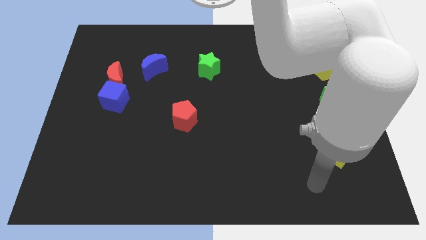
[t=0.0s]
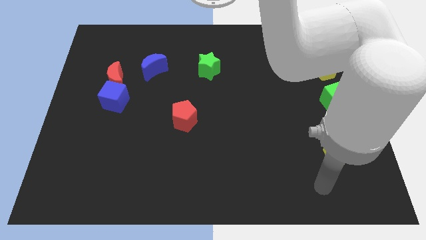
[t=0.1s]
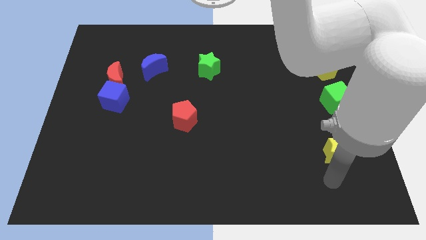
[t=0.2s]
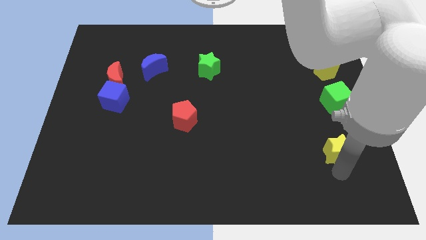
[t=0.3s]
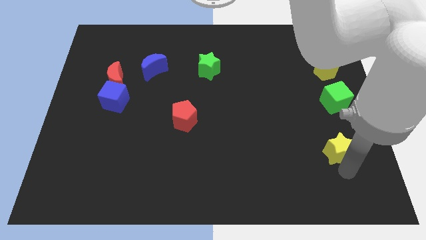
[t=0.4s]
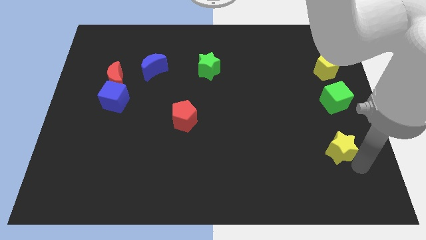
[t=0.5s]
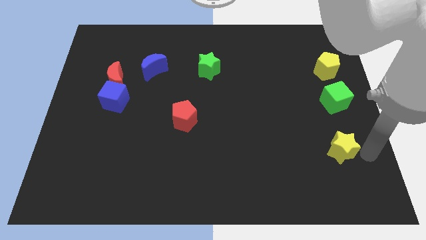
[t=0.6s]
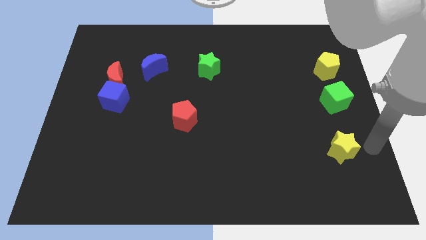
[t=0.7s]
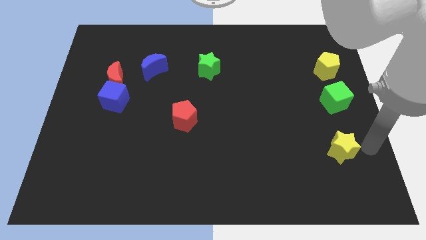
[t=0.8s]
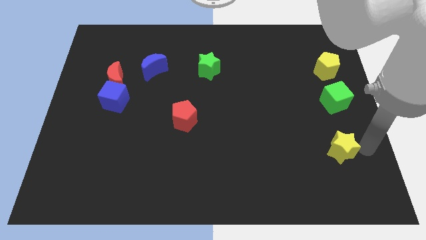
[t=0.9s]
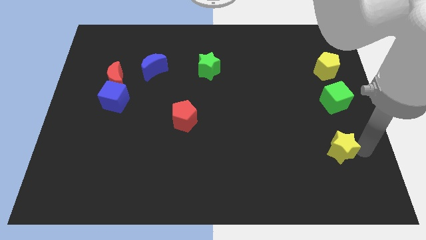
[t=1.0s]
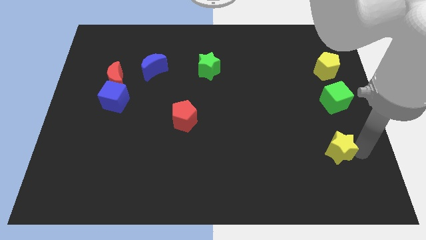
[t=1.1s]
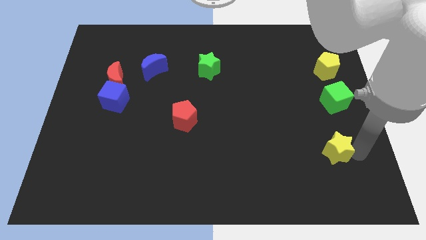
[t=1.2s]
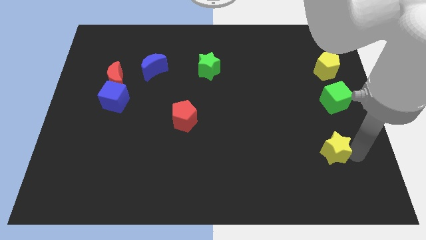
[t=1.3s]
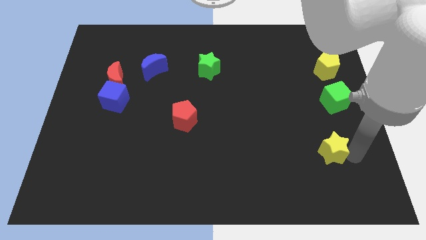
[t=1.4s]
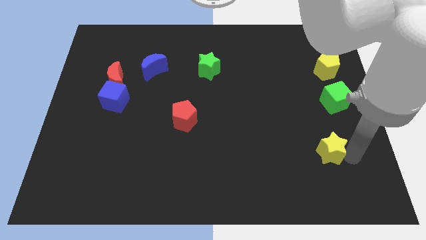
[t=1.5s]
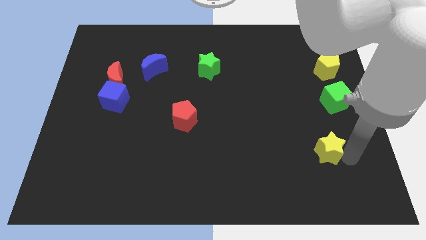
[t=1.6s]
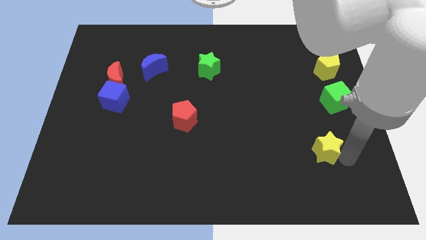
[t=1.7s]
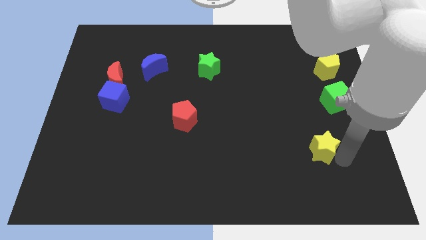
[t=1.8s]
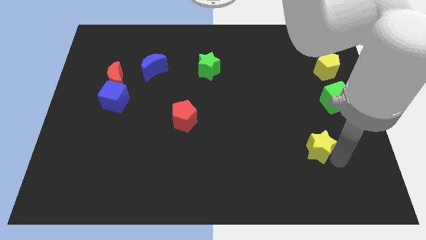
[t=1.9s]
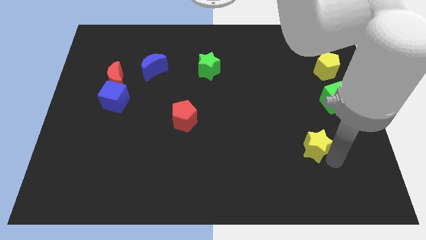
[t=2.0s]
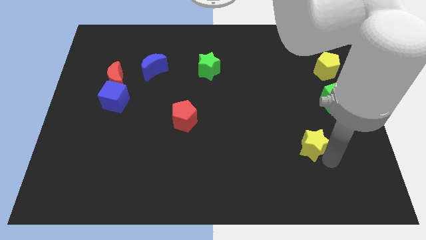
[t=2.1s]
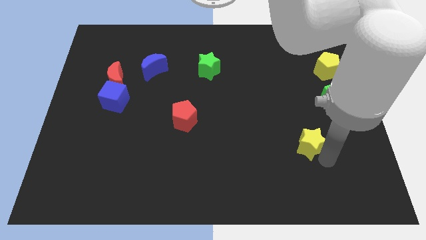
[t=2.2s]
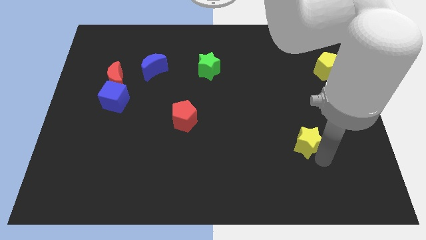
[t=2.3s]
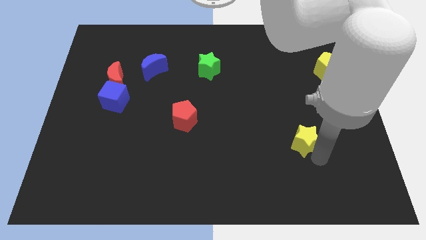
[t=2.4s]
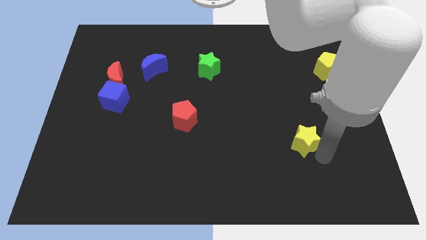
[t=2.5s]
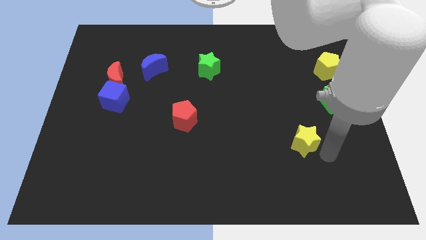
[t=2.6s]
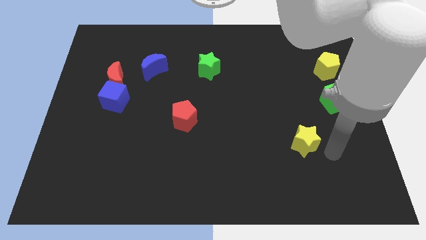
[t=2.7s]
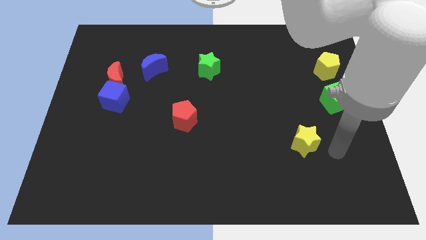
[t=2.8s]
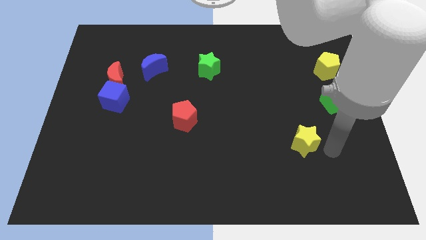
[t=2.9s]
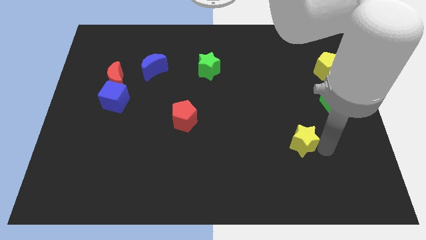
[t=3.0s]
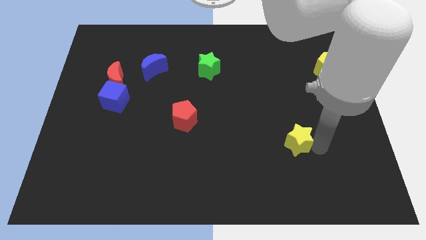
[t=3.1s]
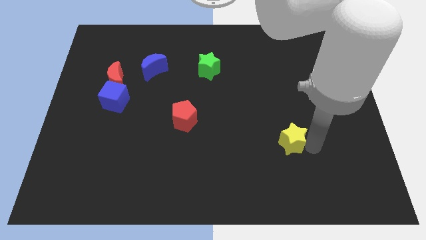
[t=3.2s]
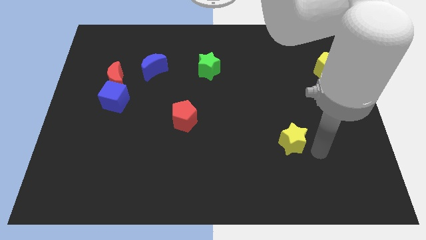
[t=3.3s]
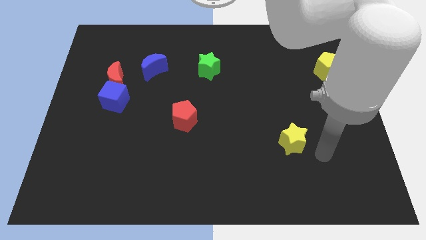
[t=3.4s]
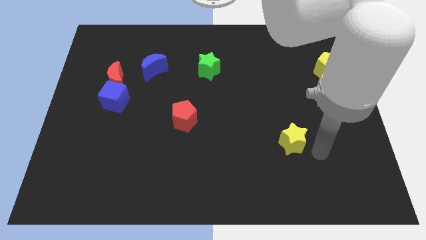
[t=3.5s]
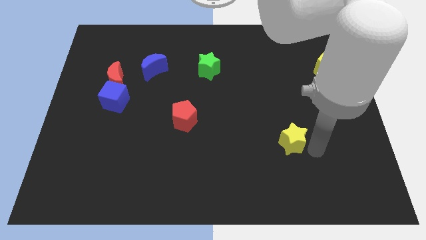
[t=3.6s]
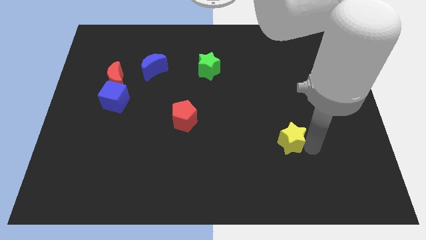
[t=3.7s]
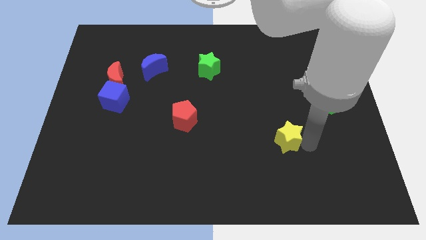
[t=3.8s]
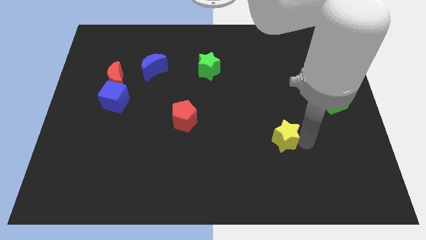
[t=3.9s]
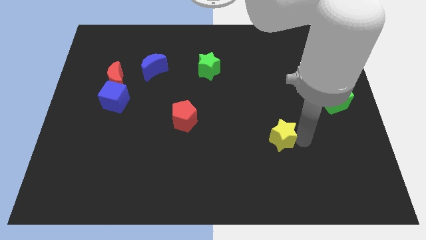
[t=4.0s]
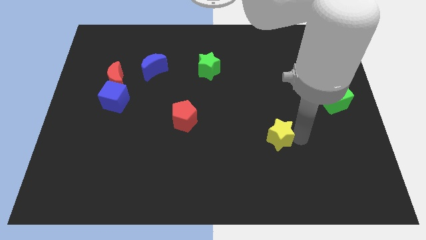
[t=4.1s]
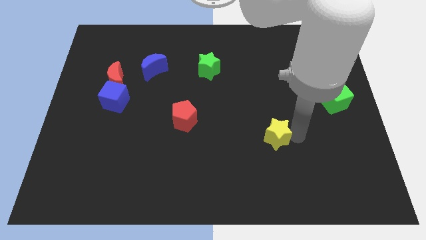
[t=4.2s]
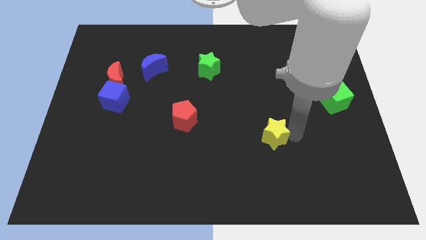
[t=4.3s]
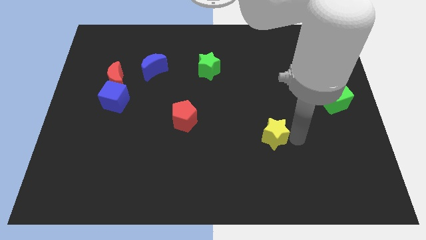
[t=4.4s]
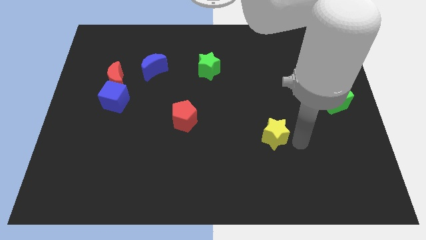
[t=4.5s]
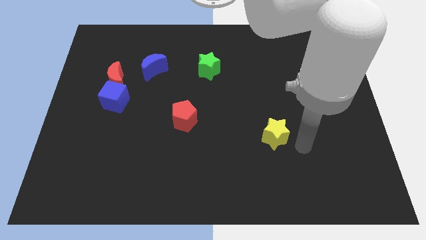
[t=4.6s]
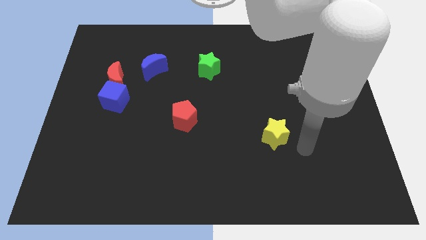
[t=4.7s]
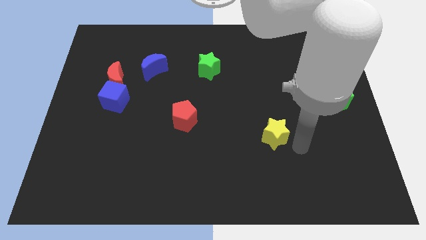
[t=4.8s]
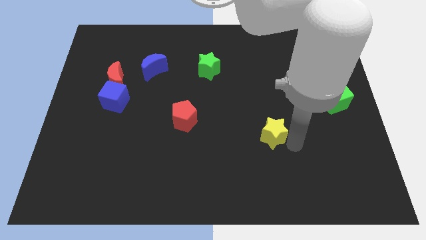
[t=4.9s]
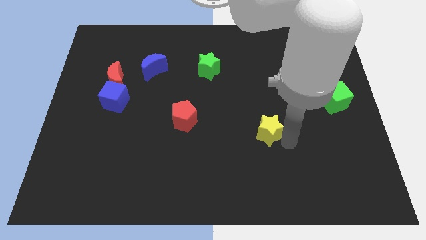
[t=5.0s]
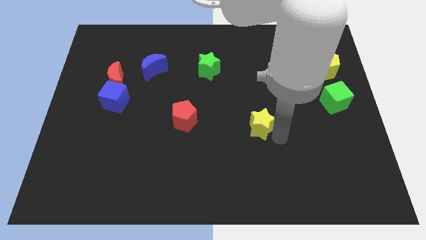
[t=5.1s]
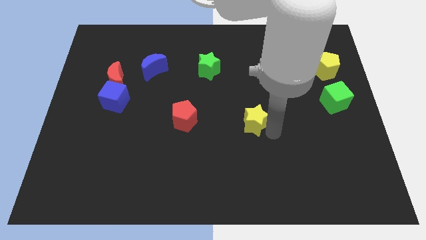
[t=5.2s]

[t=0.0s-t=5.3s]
move the yellow star right of the red pentagon

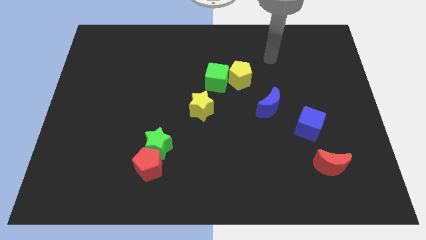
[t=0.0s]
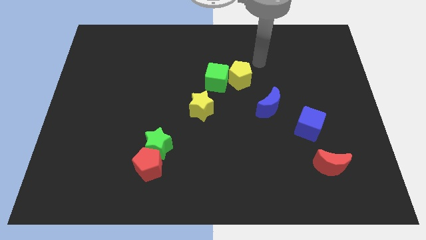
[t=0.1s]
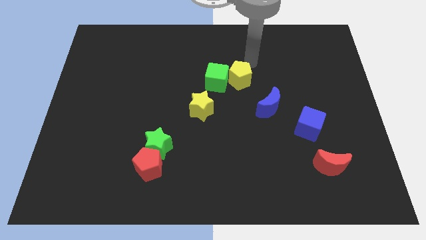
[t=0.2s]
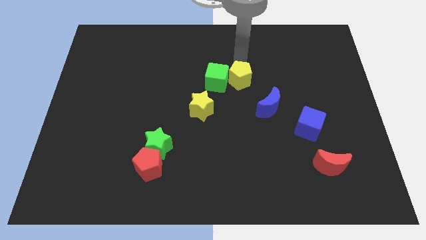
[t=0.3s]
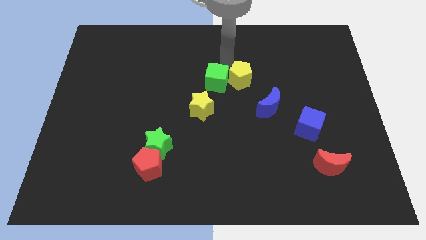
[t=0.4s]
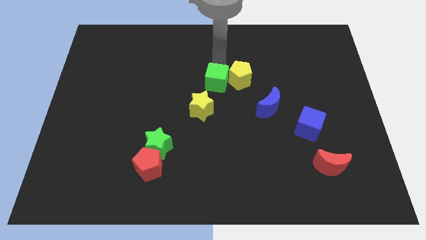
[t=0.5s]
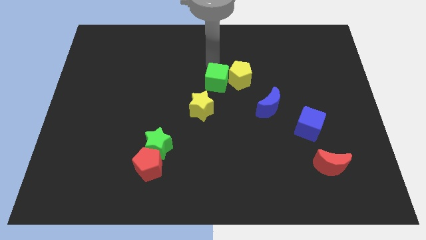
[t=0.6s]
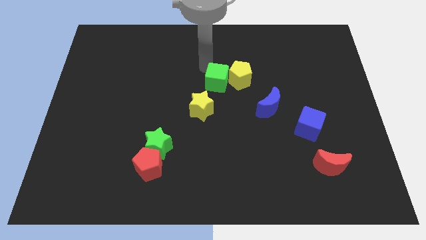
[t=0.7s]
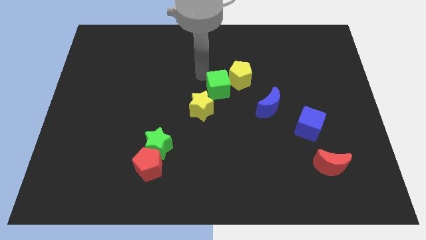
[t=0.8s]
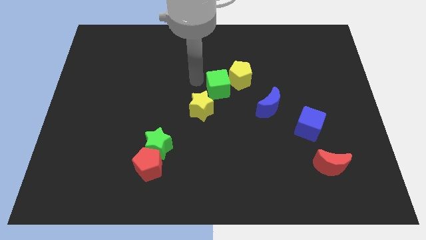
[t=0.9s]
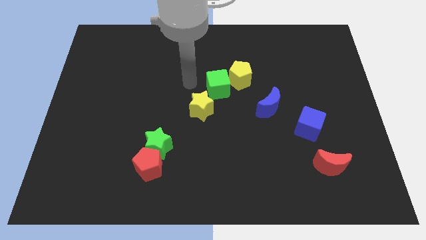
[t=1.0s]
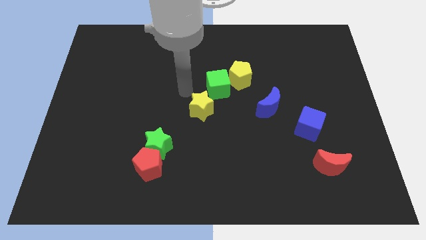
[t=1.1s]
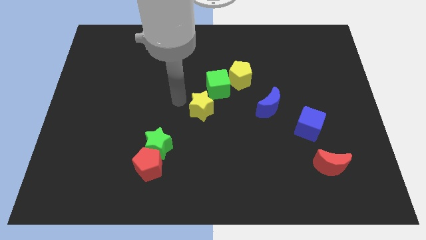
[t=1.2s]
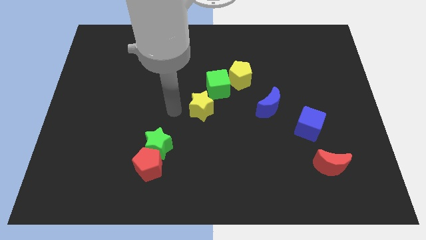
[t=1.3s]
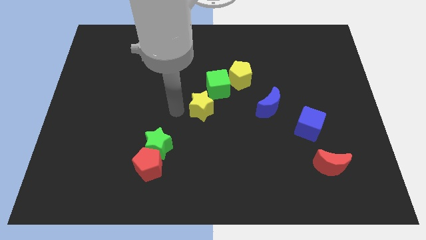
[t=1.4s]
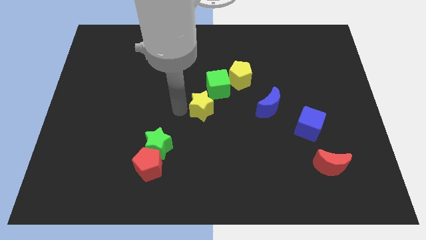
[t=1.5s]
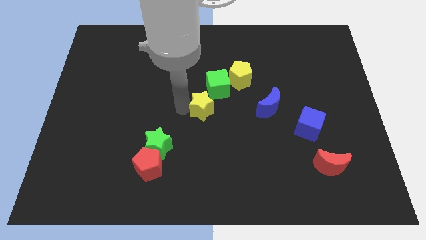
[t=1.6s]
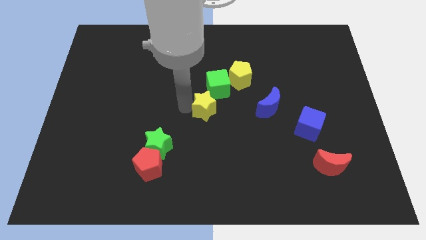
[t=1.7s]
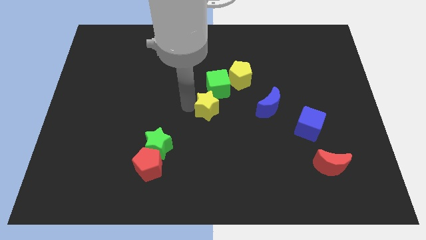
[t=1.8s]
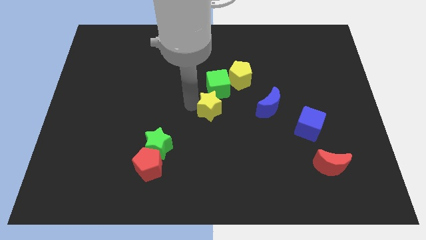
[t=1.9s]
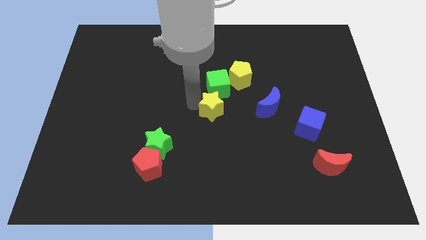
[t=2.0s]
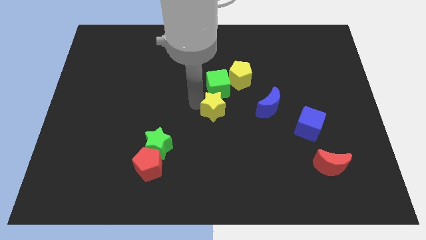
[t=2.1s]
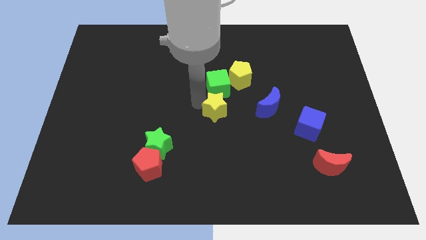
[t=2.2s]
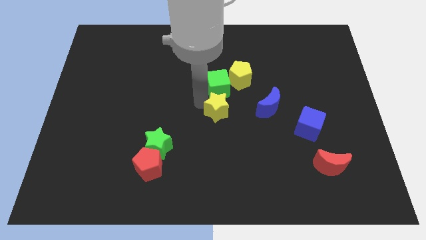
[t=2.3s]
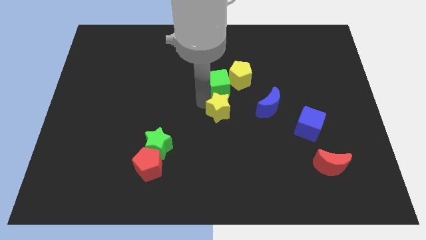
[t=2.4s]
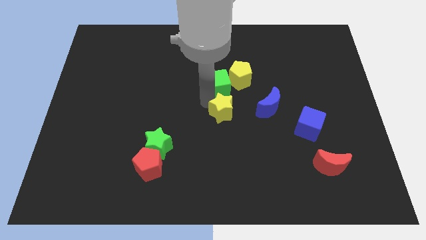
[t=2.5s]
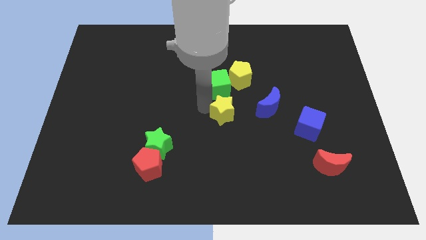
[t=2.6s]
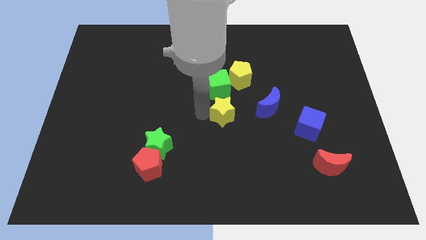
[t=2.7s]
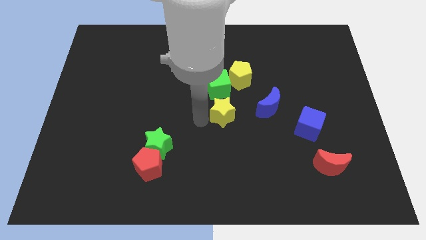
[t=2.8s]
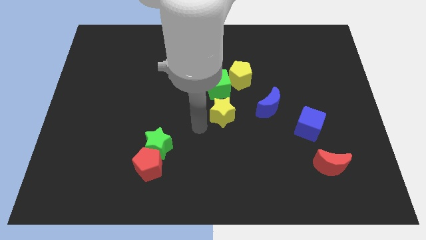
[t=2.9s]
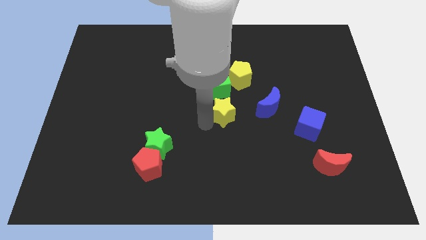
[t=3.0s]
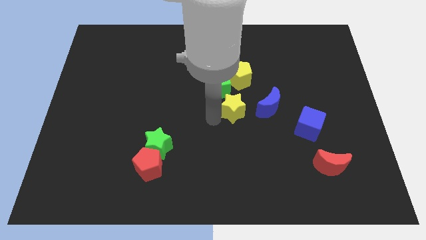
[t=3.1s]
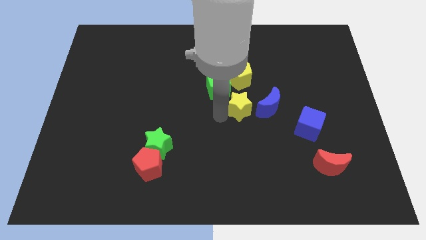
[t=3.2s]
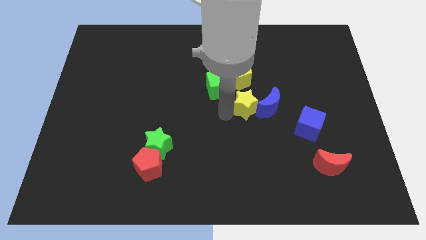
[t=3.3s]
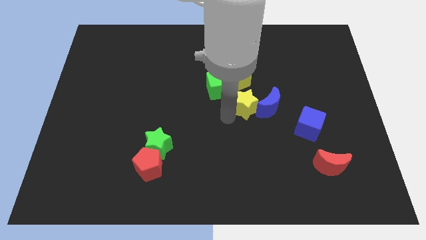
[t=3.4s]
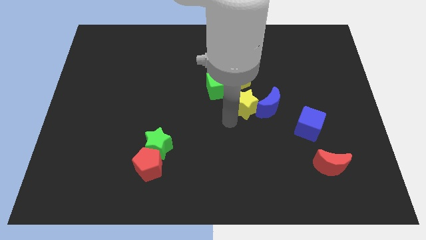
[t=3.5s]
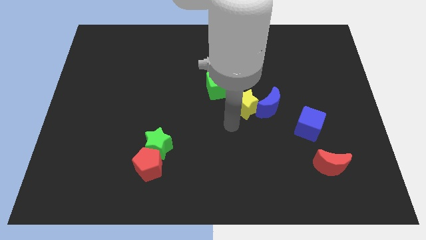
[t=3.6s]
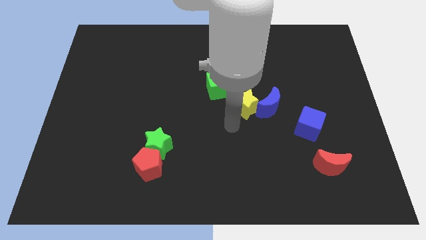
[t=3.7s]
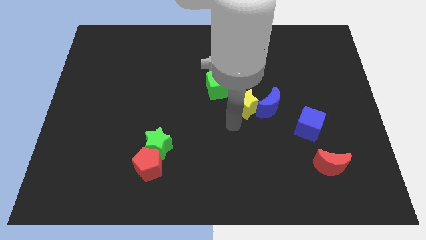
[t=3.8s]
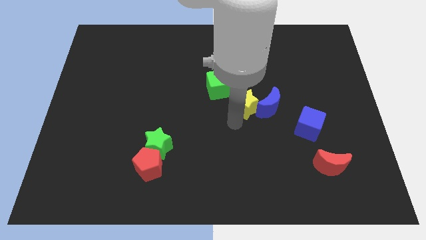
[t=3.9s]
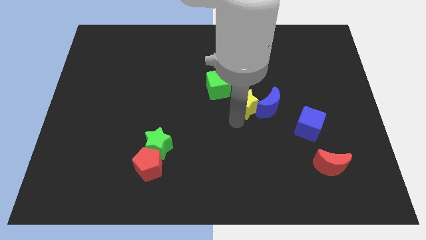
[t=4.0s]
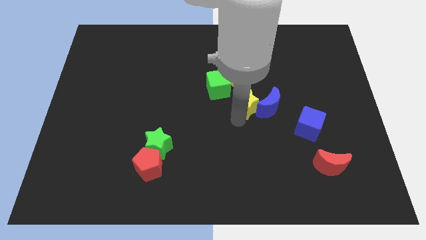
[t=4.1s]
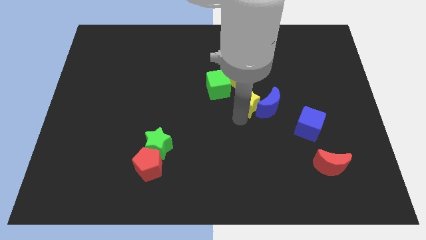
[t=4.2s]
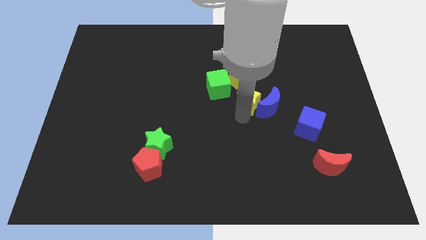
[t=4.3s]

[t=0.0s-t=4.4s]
put the yellow star diagonally down and to the right of the yellow pentagon
